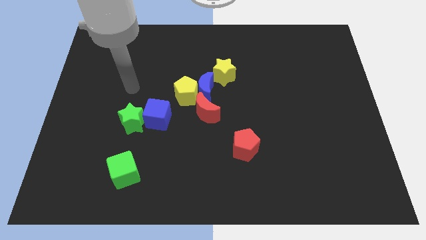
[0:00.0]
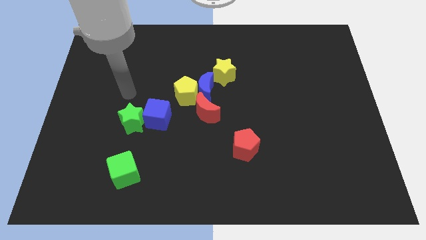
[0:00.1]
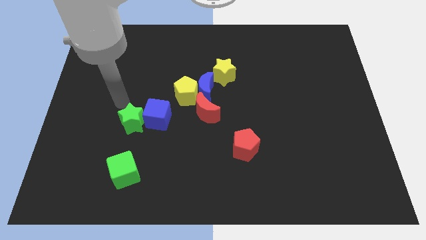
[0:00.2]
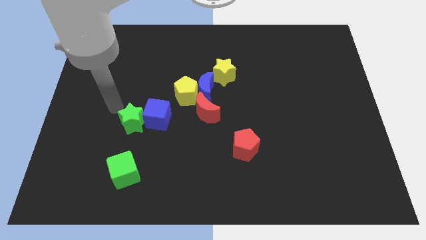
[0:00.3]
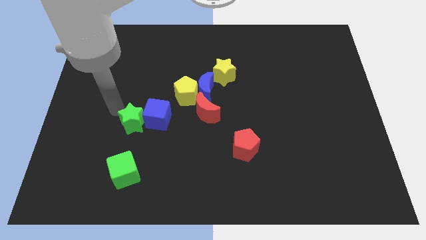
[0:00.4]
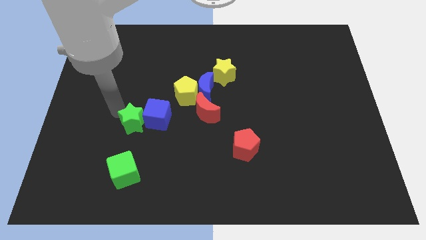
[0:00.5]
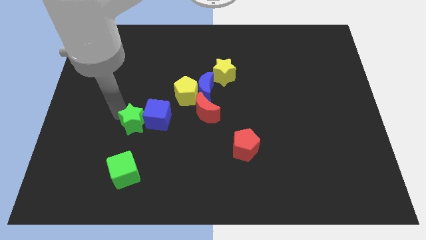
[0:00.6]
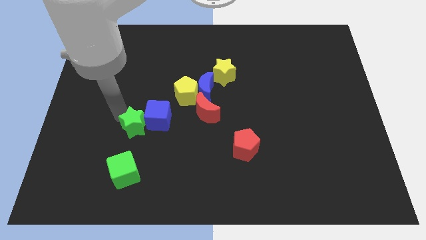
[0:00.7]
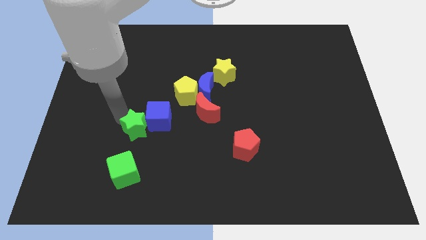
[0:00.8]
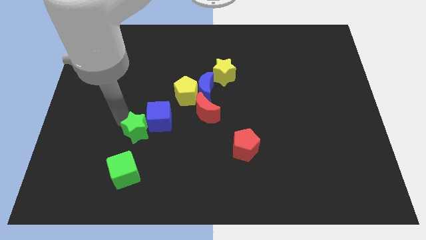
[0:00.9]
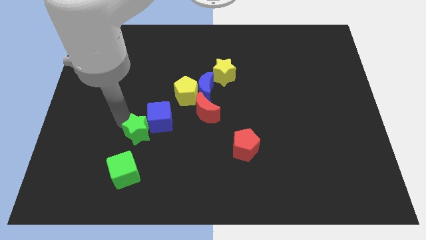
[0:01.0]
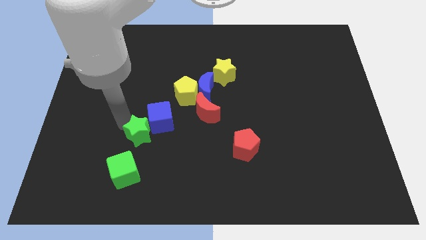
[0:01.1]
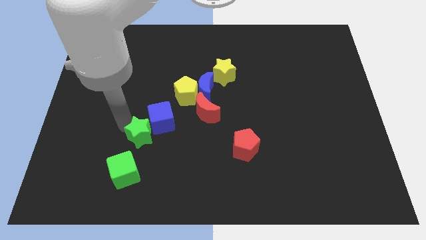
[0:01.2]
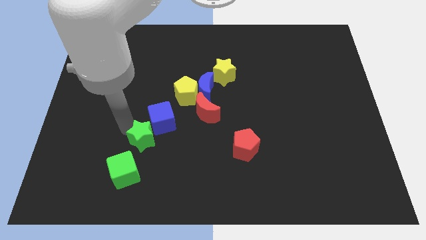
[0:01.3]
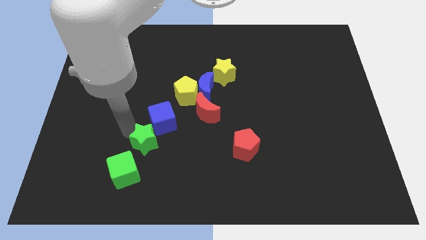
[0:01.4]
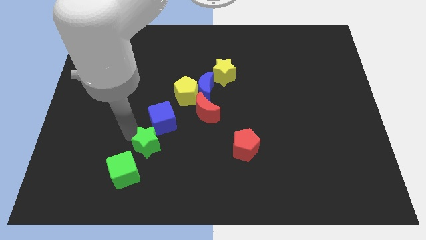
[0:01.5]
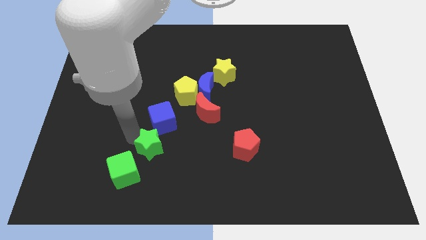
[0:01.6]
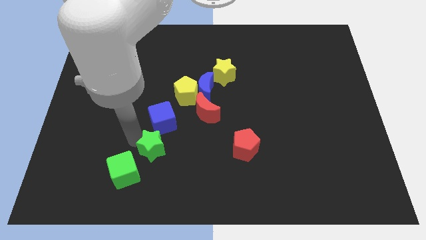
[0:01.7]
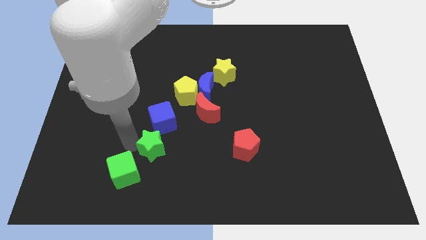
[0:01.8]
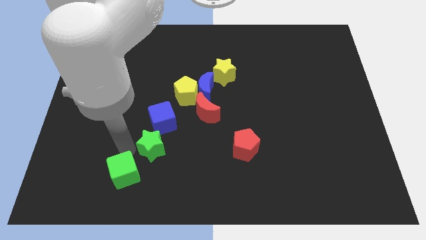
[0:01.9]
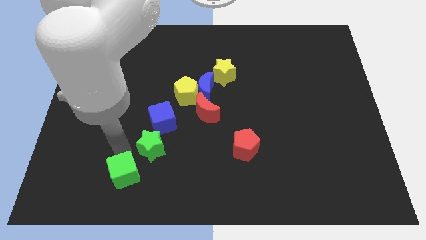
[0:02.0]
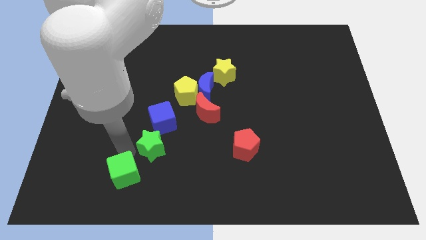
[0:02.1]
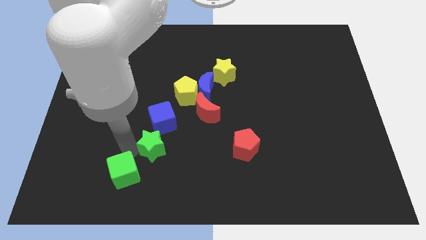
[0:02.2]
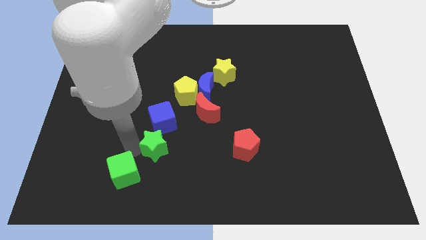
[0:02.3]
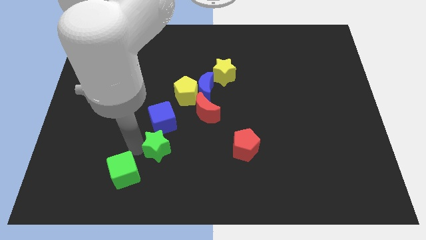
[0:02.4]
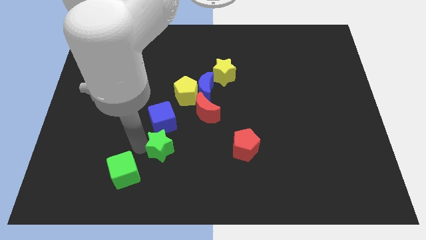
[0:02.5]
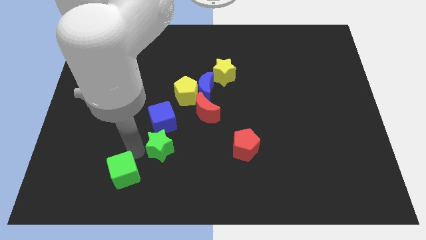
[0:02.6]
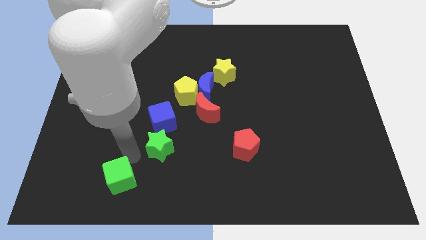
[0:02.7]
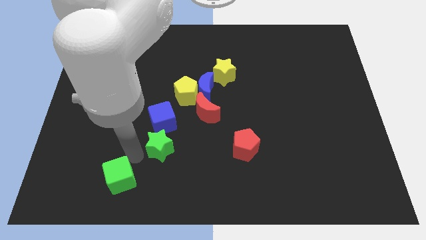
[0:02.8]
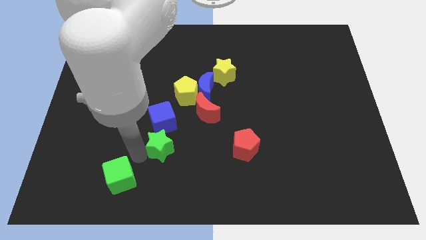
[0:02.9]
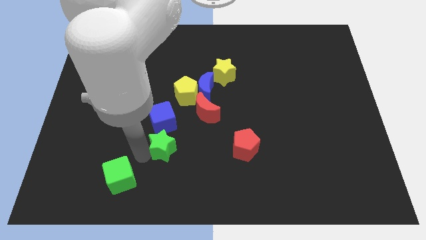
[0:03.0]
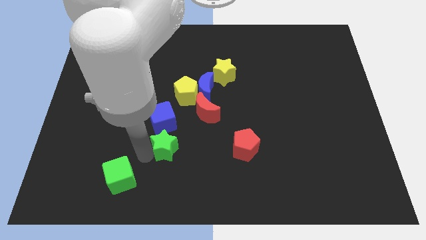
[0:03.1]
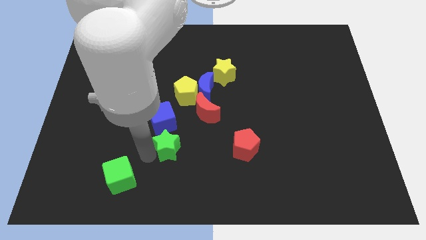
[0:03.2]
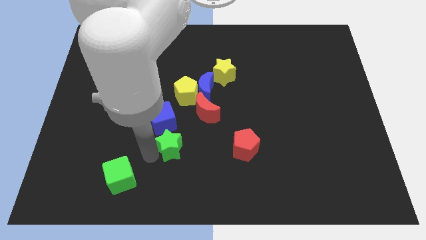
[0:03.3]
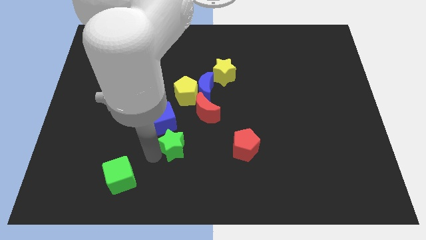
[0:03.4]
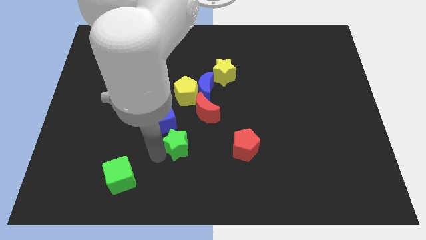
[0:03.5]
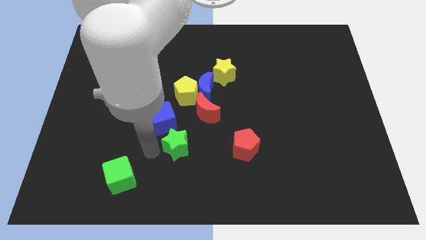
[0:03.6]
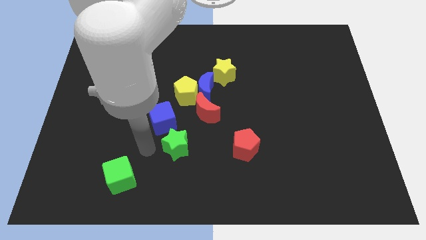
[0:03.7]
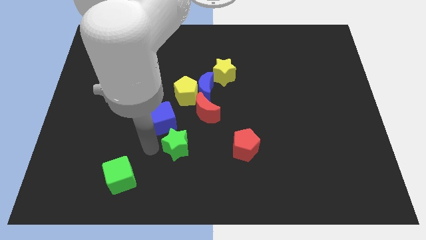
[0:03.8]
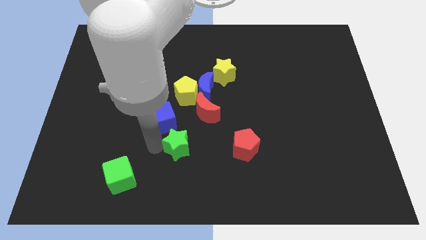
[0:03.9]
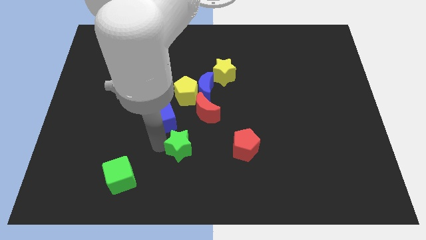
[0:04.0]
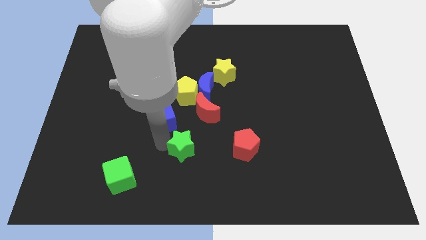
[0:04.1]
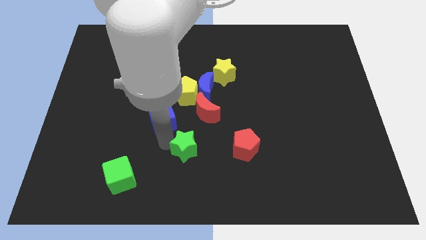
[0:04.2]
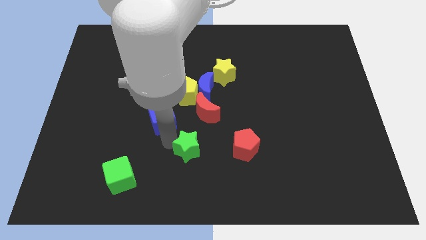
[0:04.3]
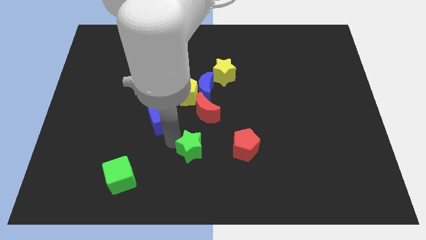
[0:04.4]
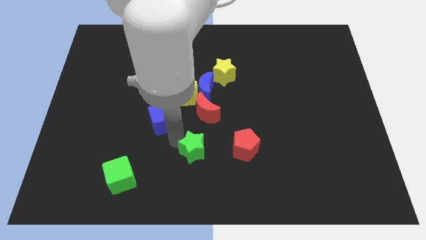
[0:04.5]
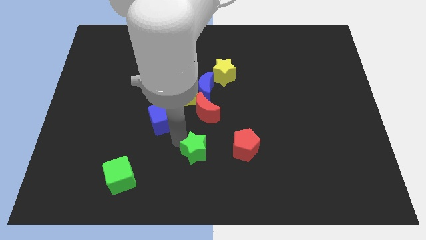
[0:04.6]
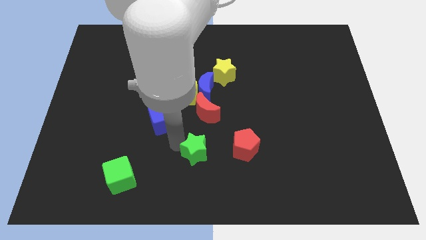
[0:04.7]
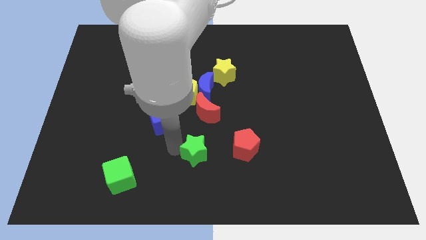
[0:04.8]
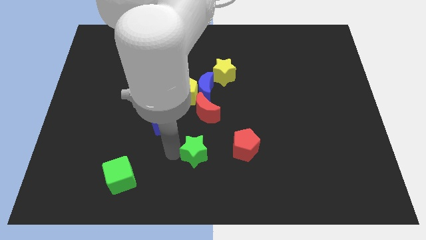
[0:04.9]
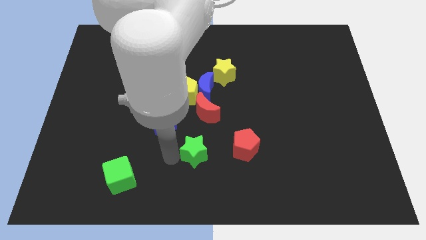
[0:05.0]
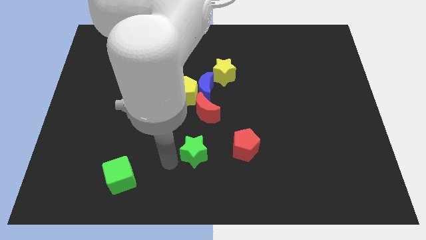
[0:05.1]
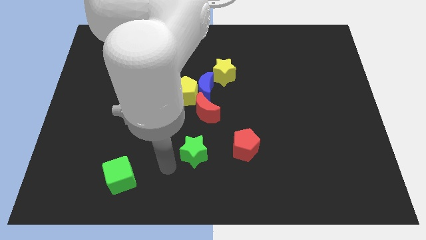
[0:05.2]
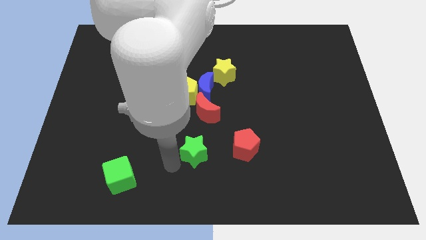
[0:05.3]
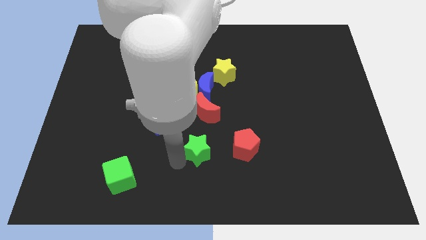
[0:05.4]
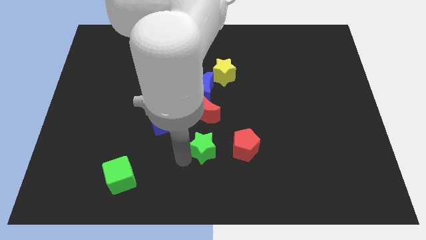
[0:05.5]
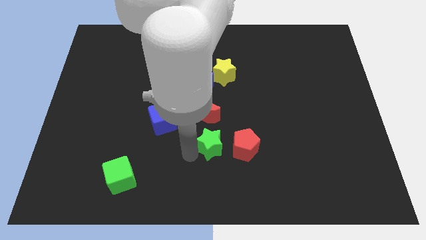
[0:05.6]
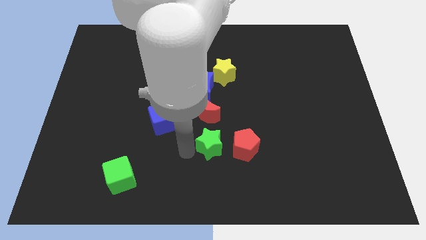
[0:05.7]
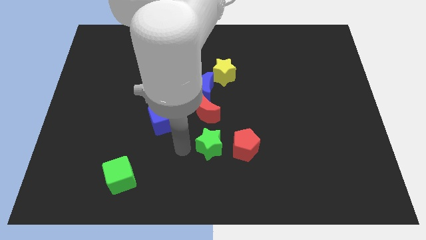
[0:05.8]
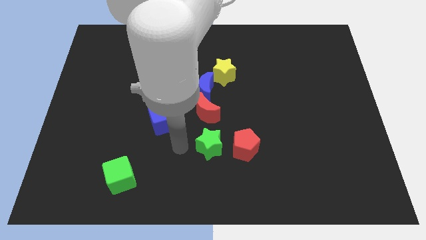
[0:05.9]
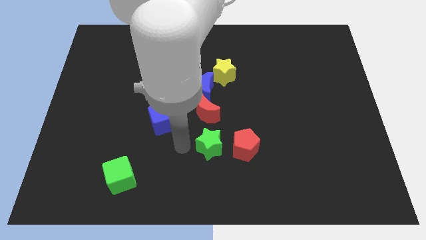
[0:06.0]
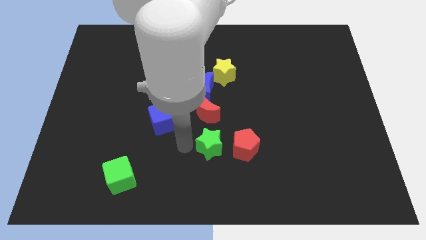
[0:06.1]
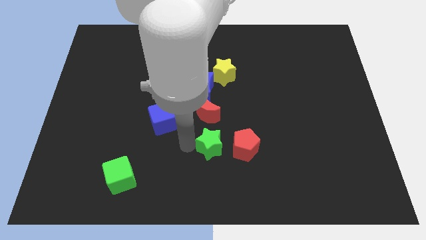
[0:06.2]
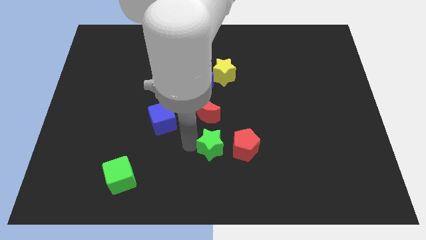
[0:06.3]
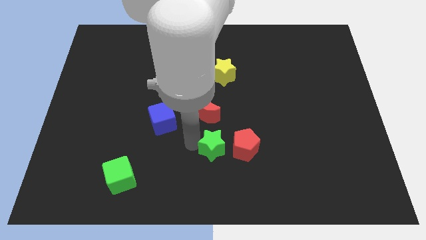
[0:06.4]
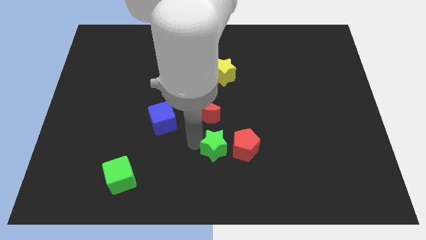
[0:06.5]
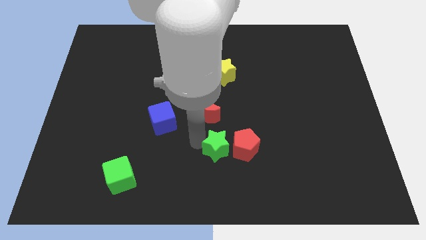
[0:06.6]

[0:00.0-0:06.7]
slide the green star towards the red pentagon

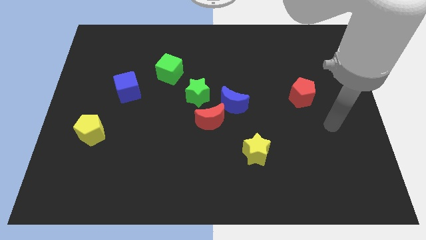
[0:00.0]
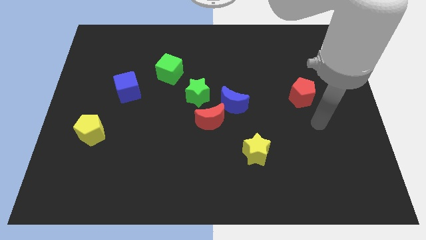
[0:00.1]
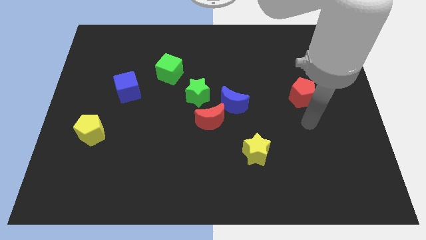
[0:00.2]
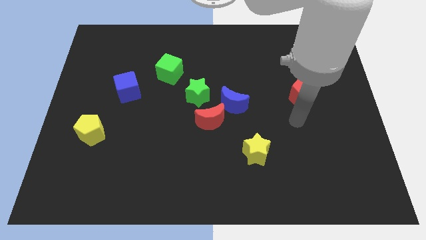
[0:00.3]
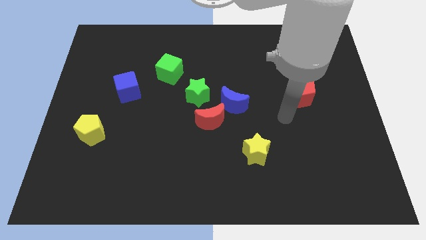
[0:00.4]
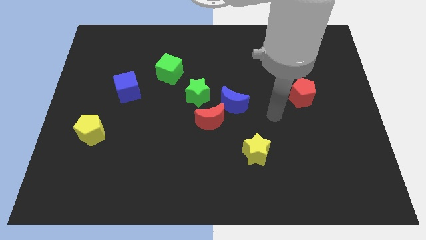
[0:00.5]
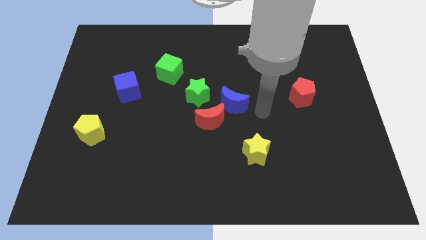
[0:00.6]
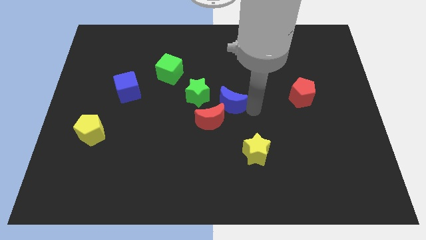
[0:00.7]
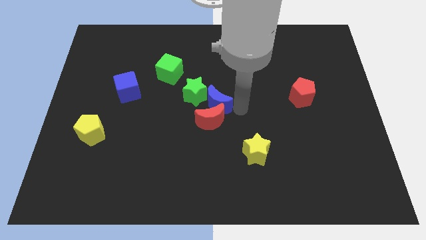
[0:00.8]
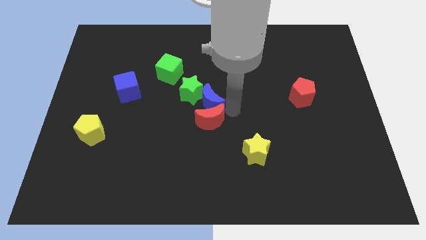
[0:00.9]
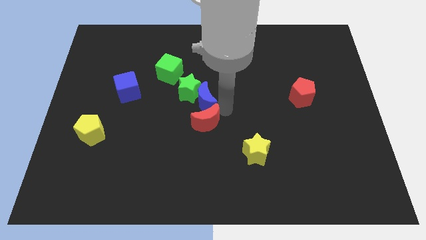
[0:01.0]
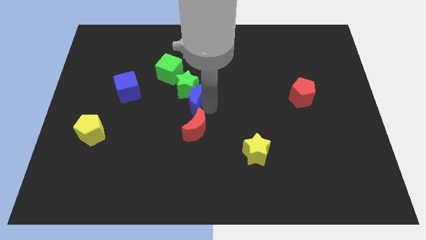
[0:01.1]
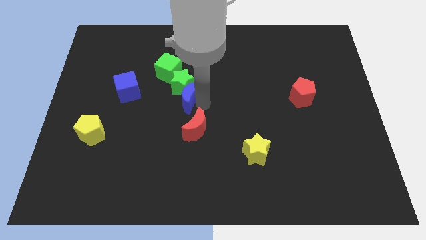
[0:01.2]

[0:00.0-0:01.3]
slide the green star next to the green cube
